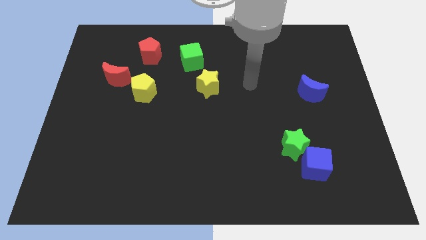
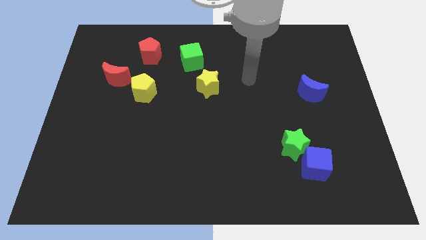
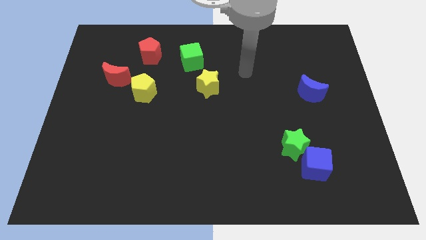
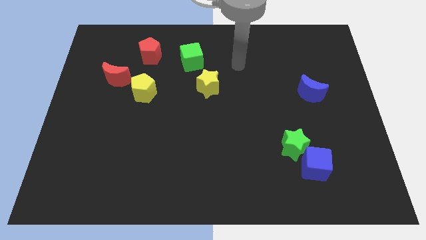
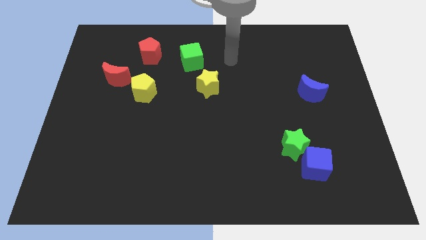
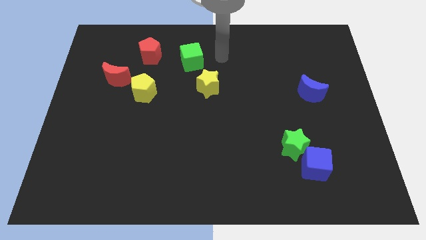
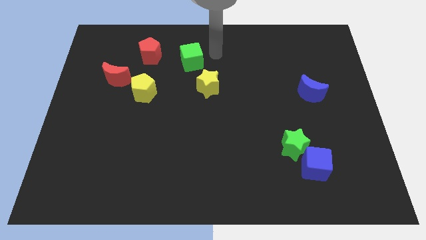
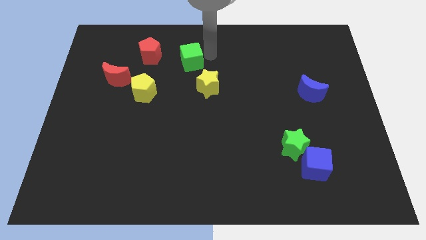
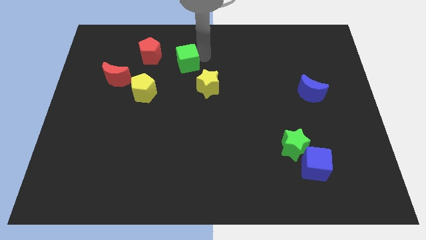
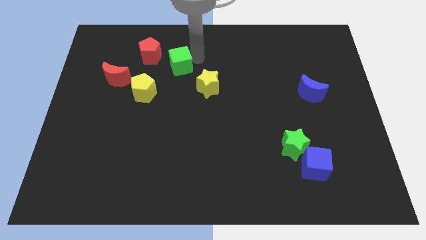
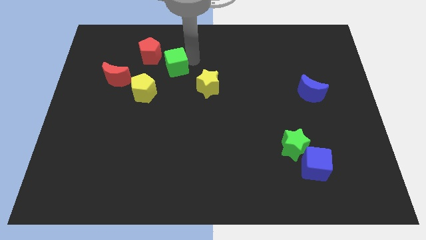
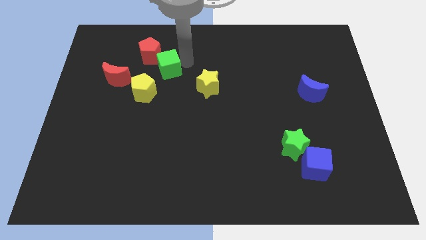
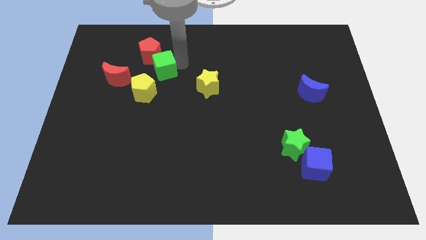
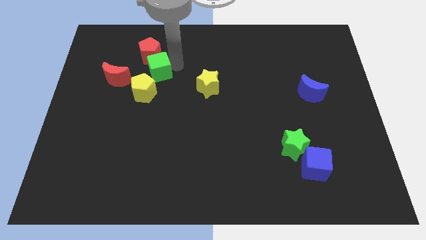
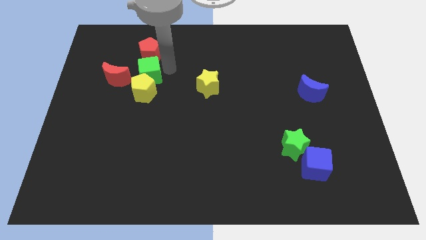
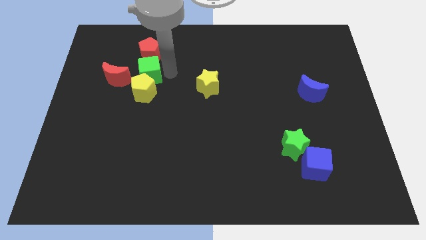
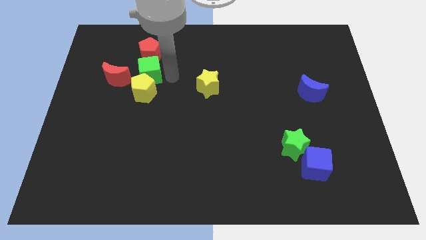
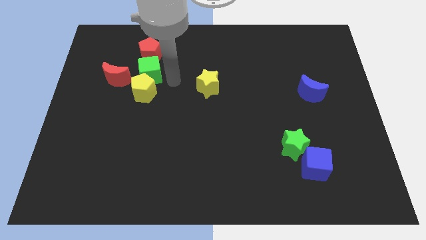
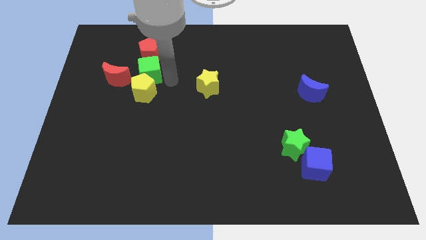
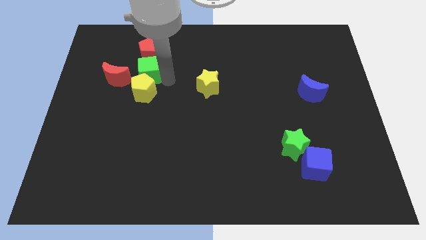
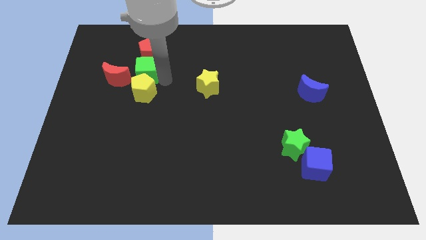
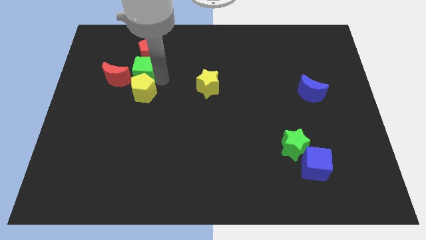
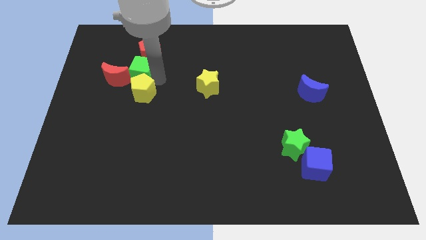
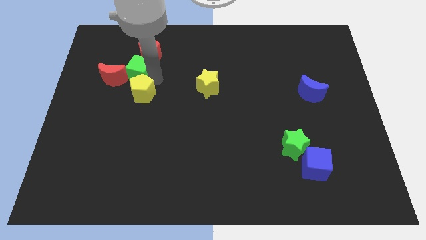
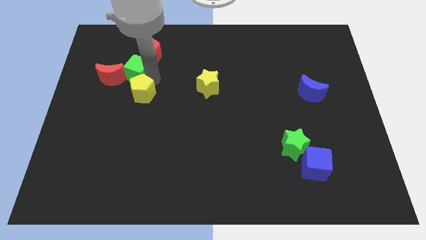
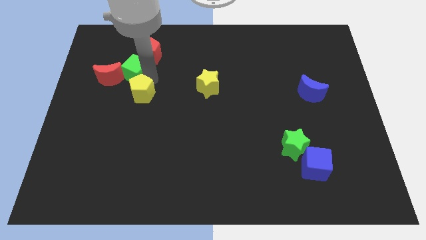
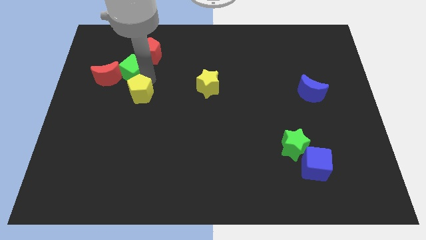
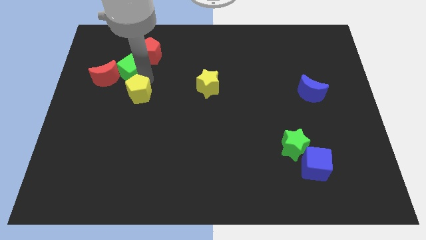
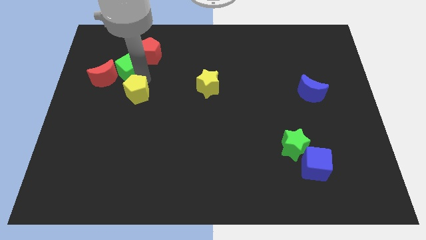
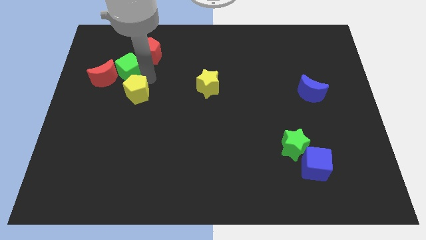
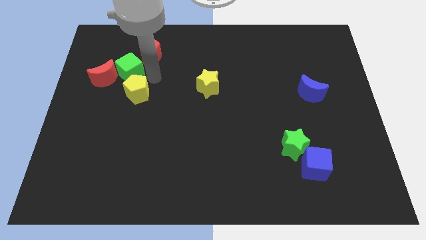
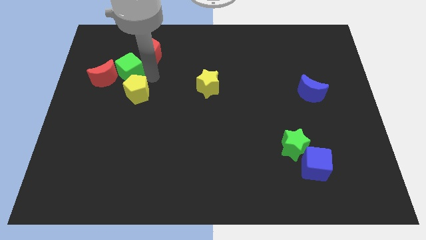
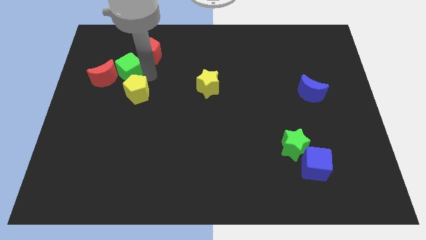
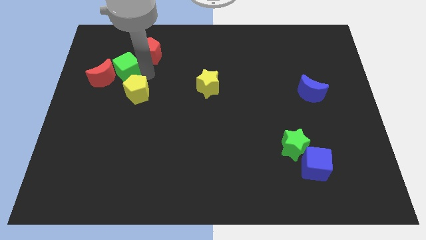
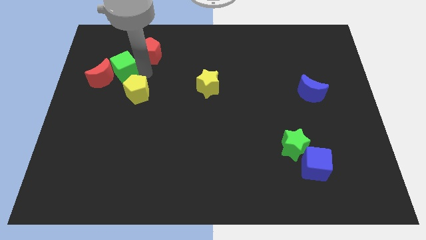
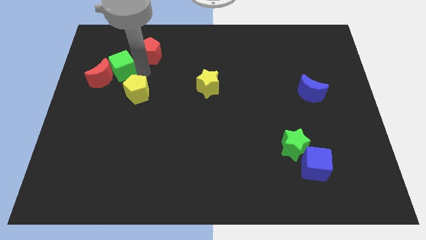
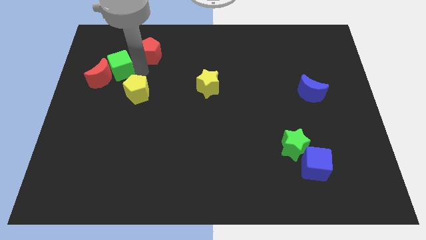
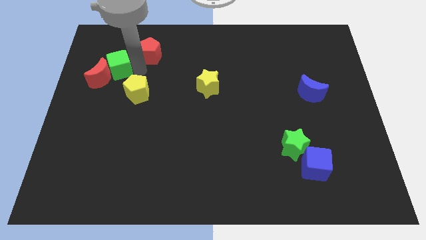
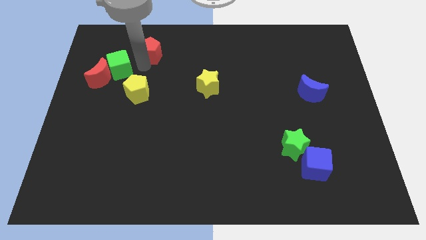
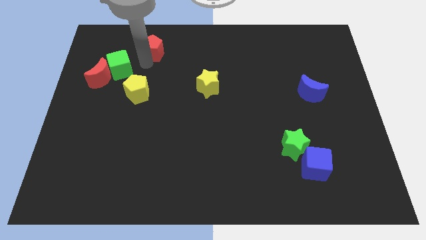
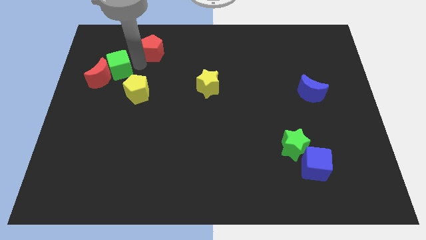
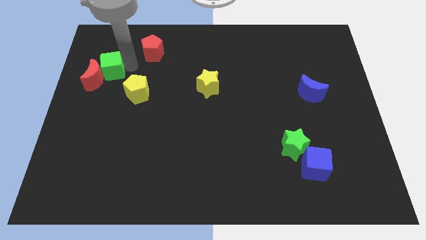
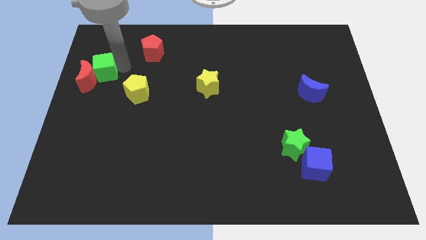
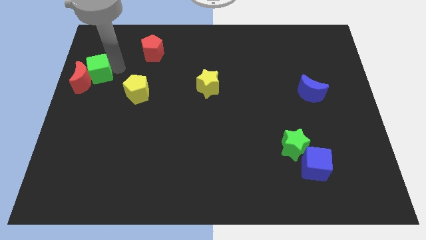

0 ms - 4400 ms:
push the green cube to the center left

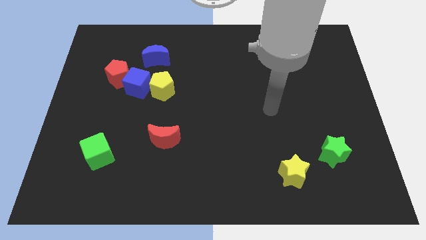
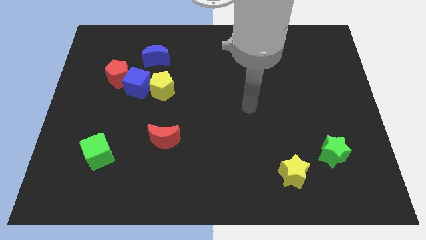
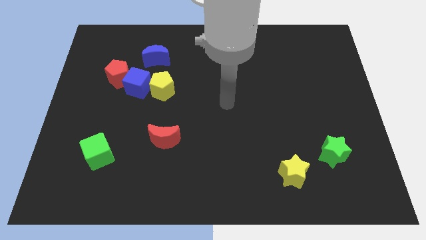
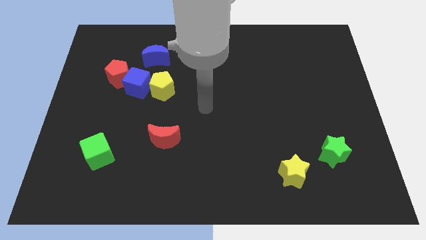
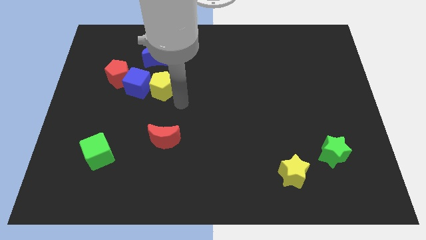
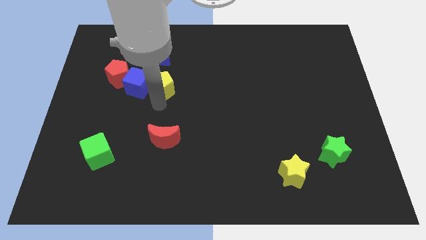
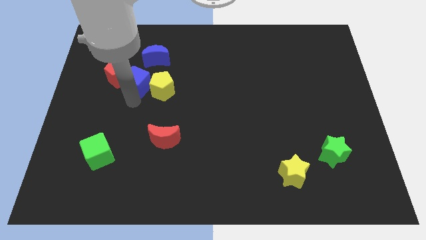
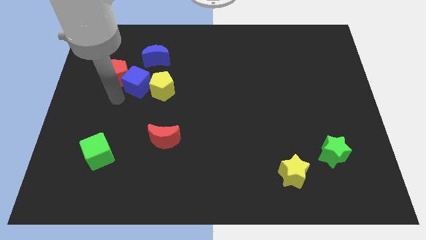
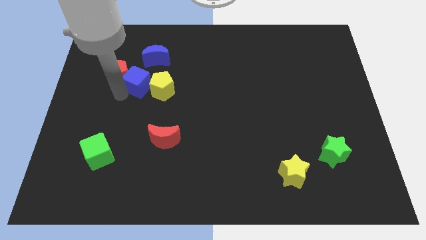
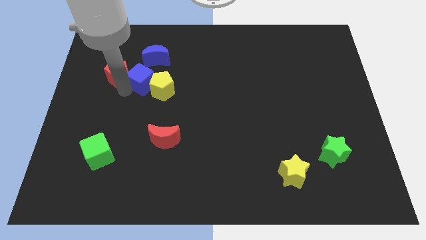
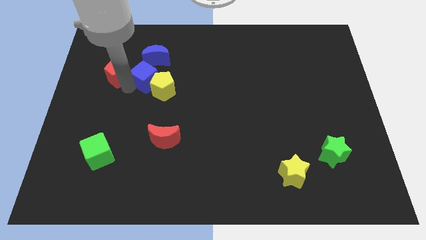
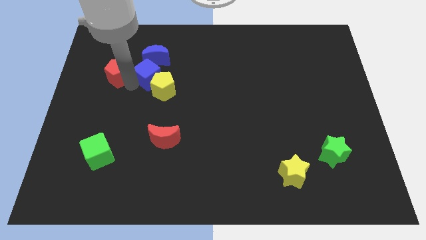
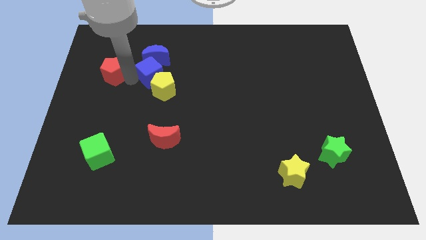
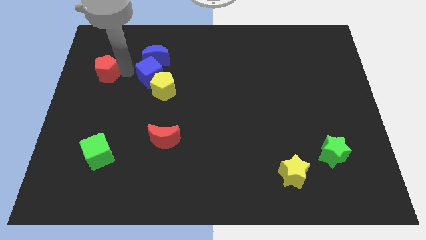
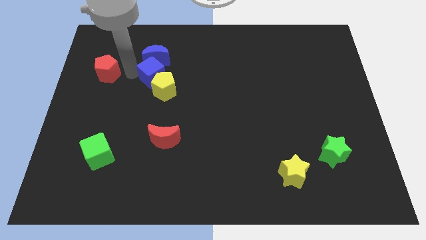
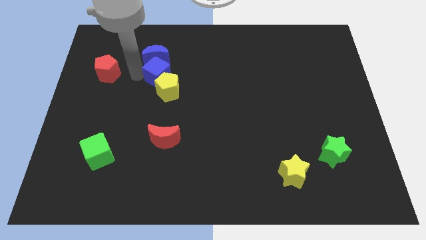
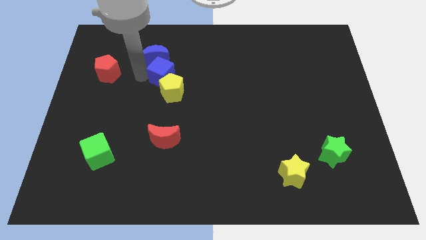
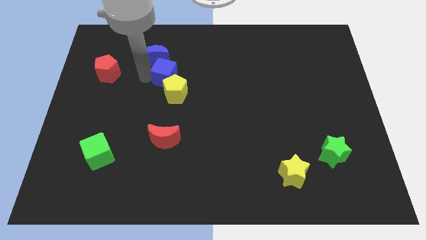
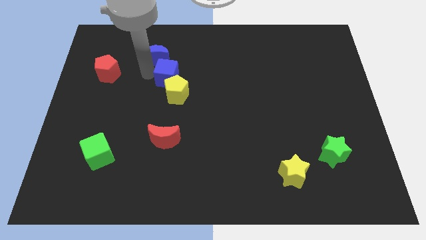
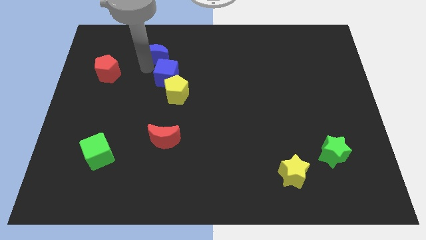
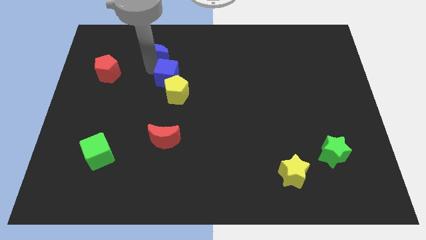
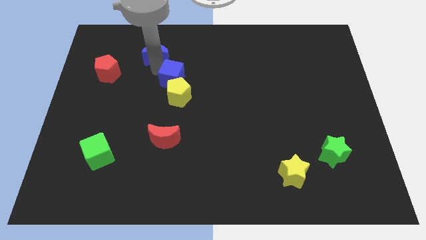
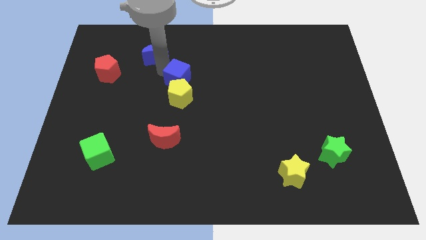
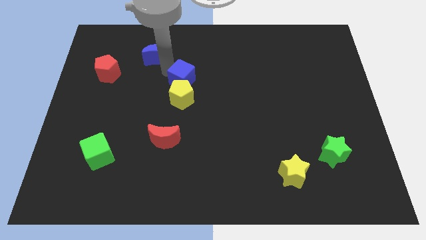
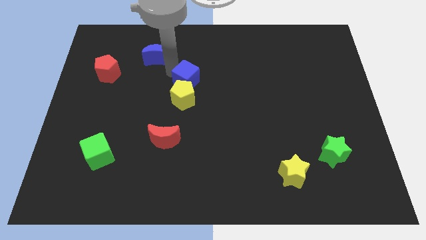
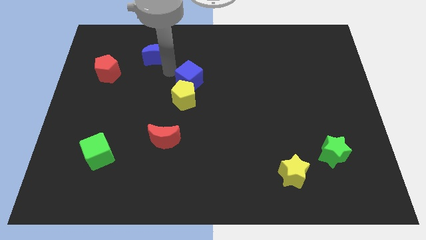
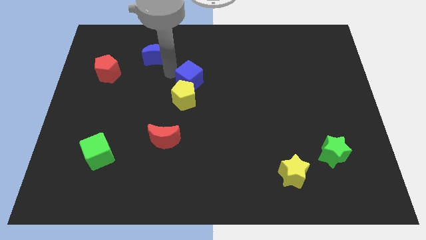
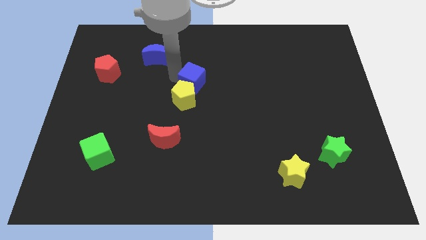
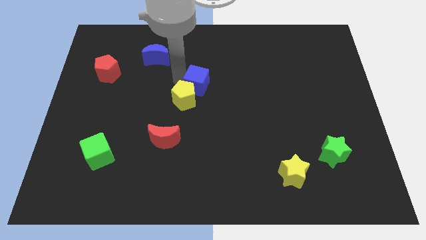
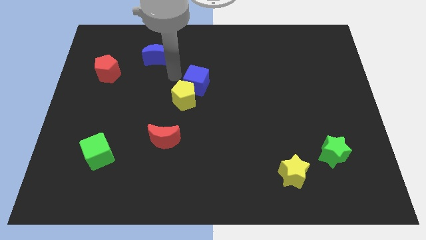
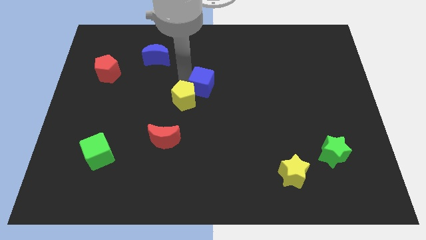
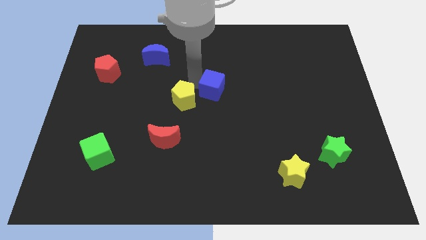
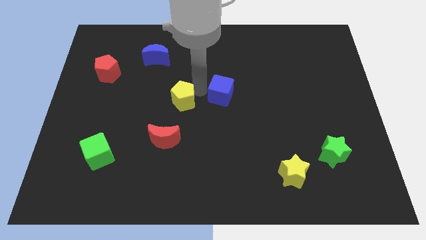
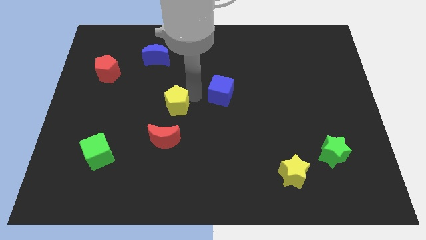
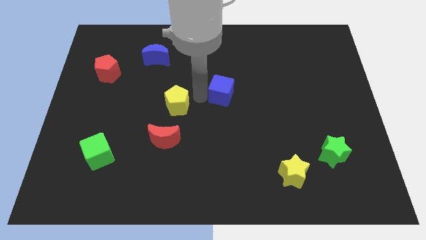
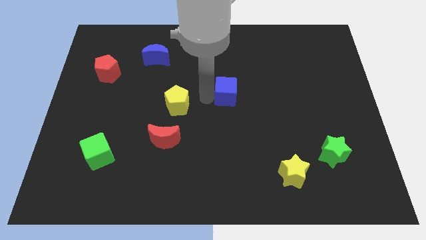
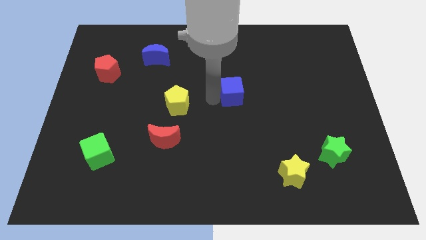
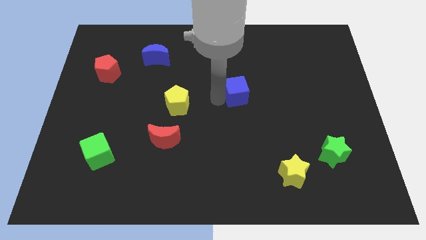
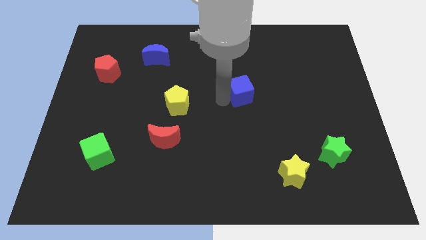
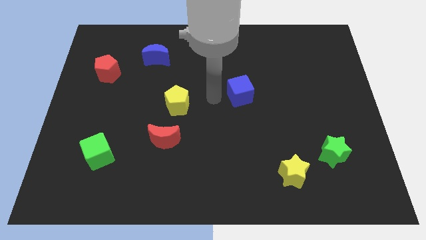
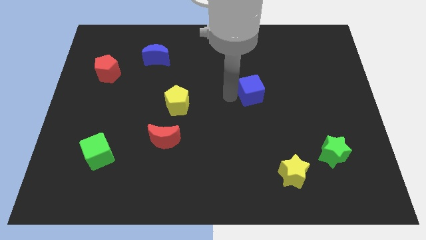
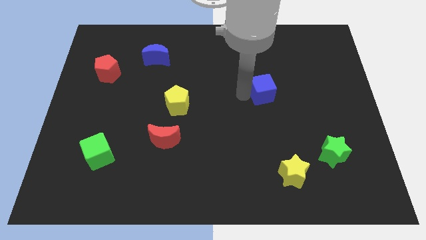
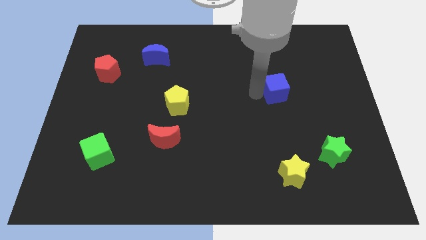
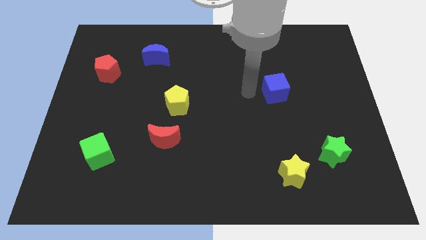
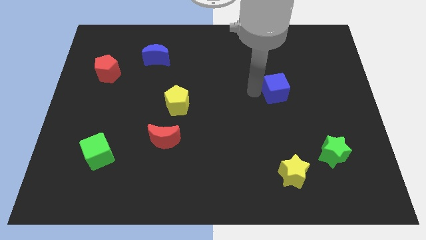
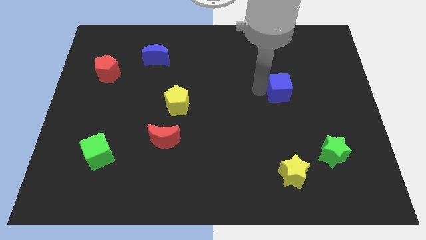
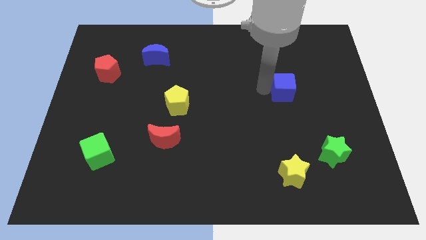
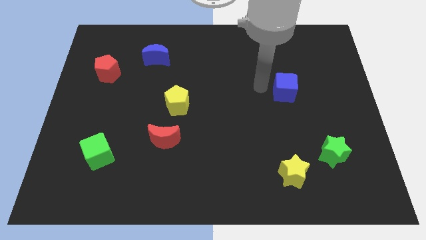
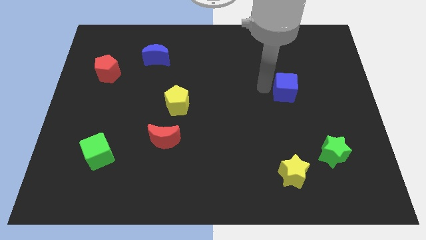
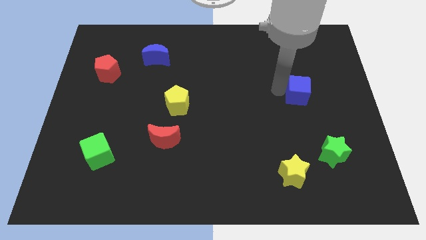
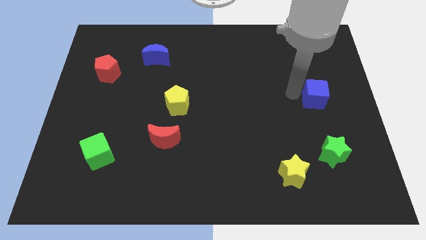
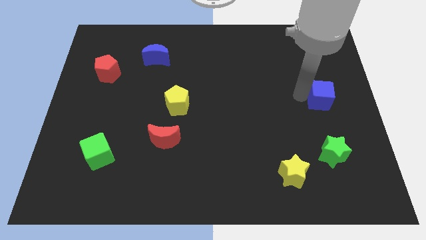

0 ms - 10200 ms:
slide the blue cube to the right side of the board
